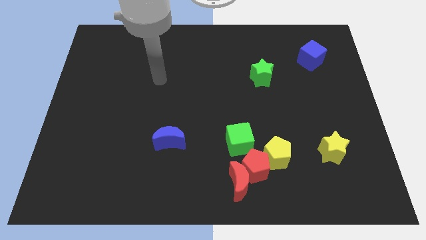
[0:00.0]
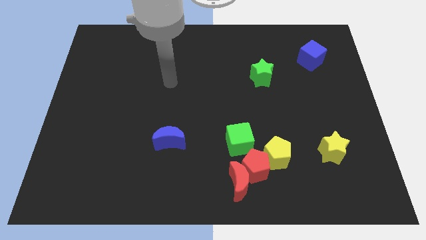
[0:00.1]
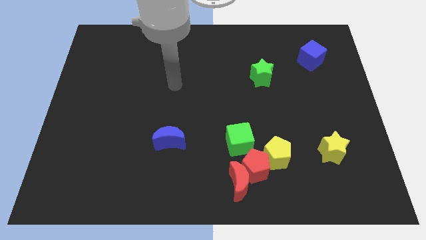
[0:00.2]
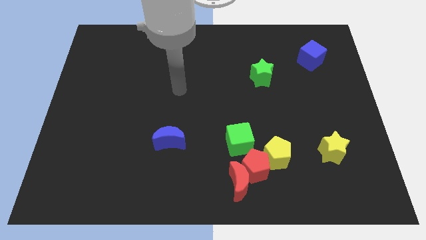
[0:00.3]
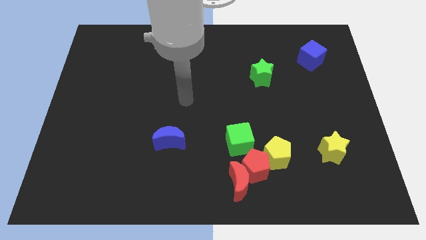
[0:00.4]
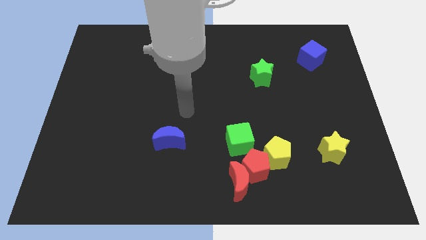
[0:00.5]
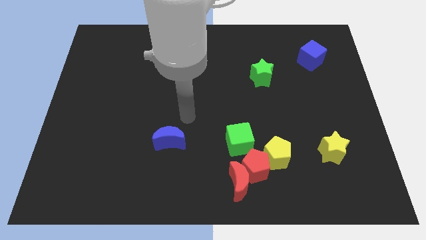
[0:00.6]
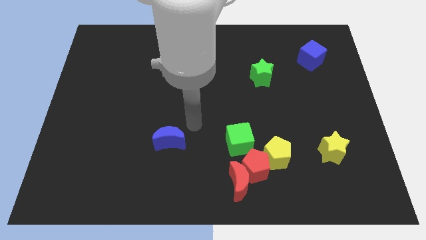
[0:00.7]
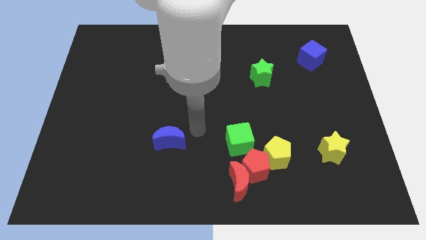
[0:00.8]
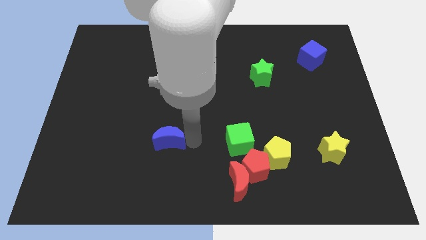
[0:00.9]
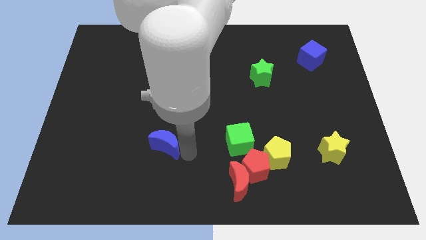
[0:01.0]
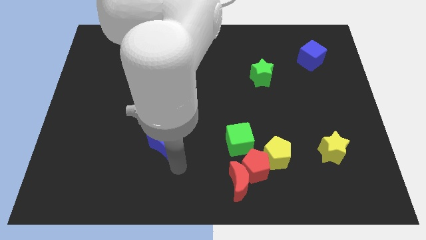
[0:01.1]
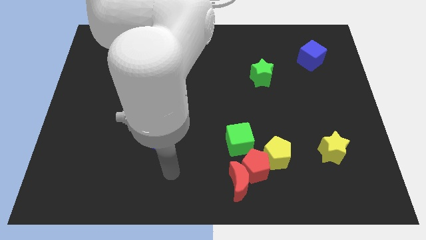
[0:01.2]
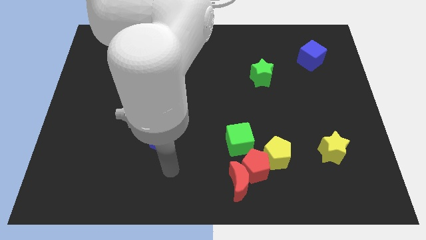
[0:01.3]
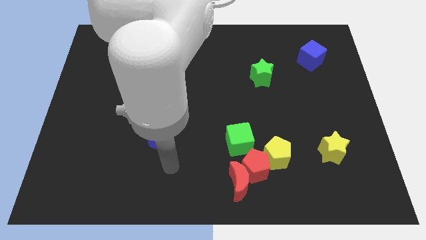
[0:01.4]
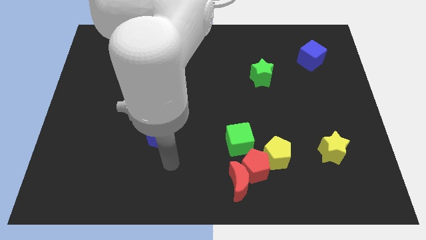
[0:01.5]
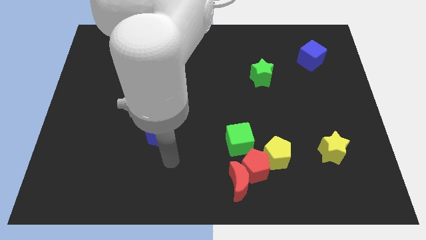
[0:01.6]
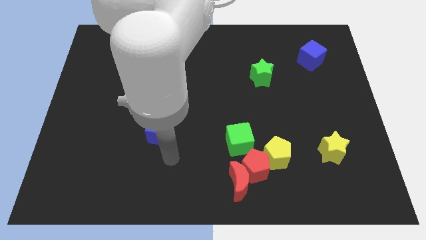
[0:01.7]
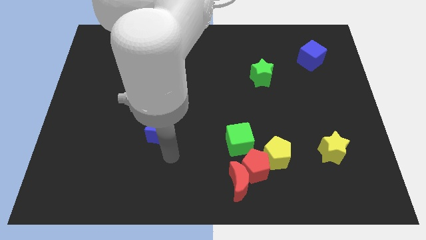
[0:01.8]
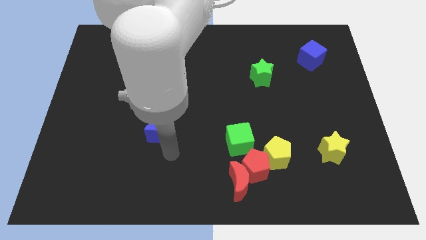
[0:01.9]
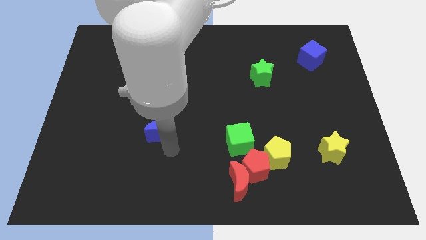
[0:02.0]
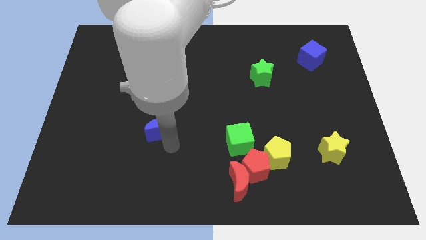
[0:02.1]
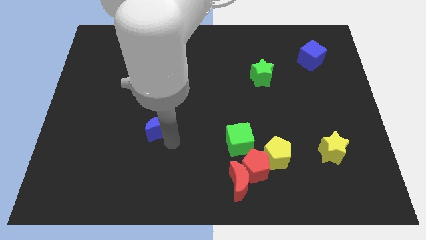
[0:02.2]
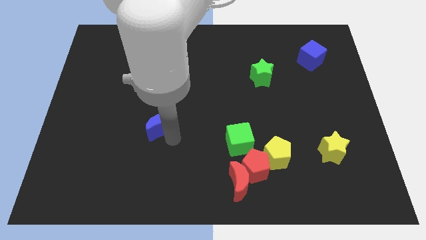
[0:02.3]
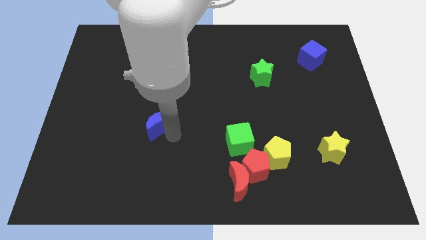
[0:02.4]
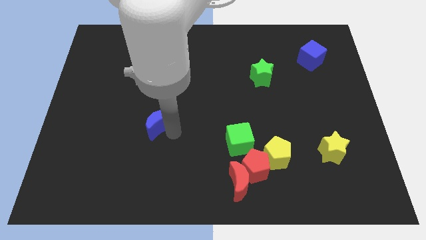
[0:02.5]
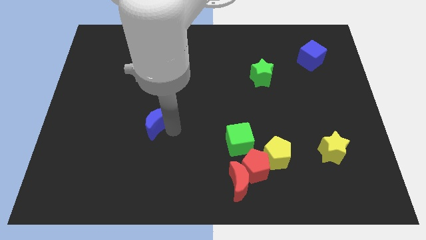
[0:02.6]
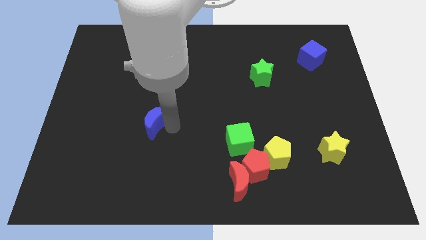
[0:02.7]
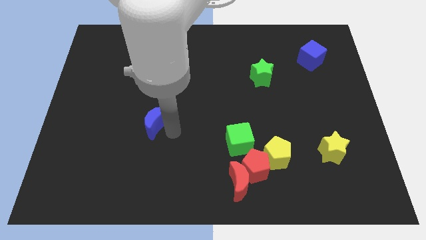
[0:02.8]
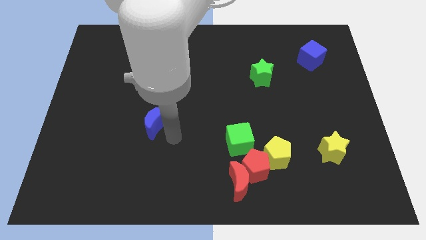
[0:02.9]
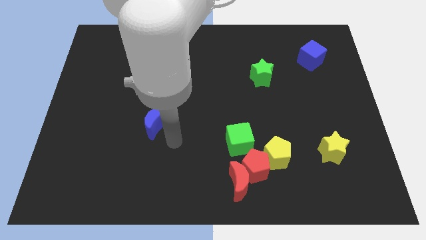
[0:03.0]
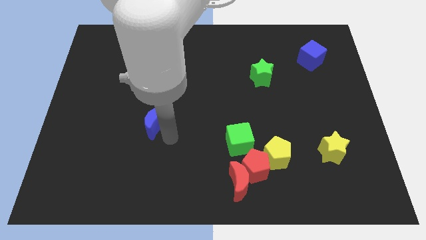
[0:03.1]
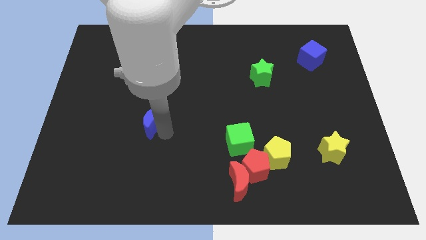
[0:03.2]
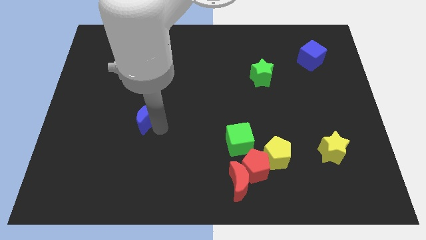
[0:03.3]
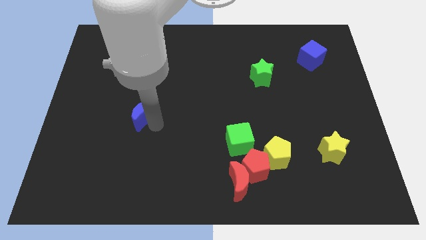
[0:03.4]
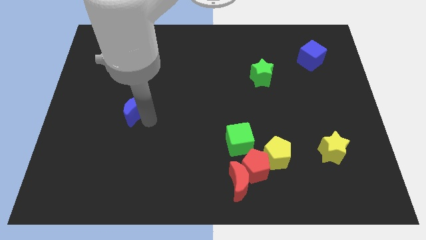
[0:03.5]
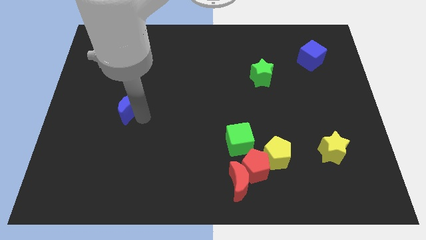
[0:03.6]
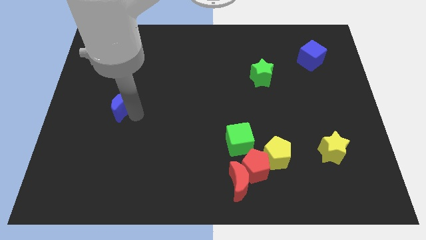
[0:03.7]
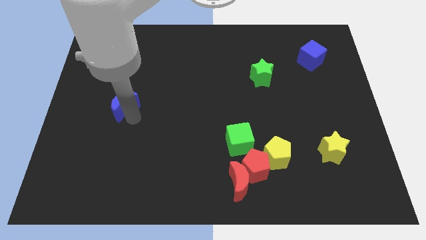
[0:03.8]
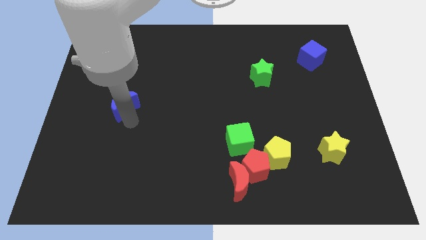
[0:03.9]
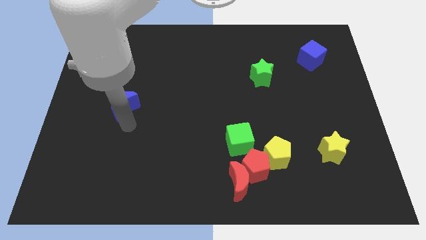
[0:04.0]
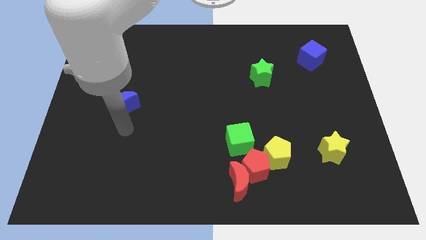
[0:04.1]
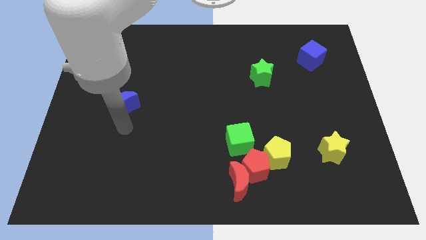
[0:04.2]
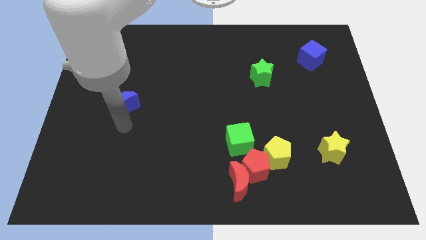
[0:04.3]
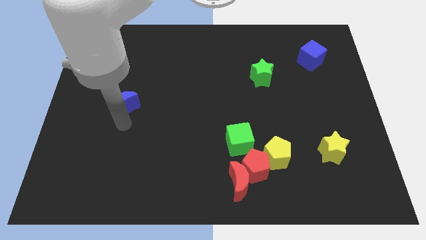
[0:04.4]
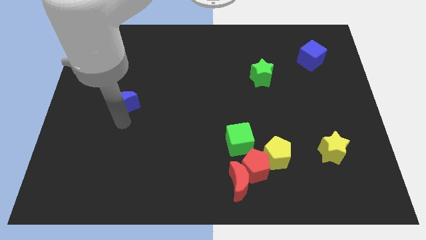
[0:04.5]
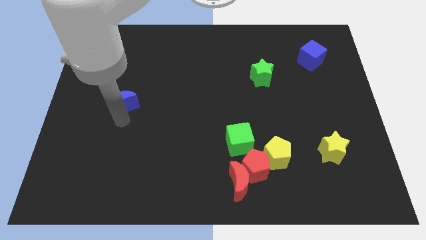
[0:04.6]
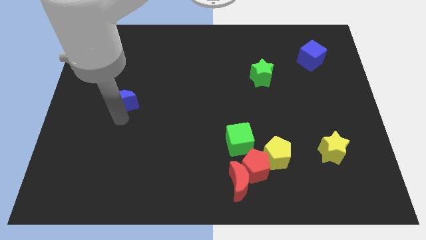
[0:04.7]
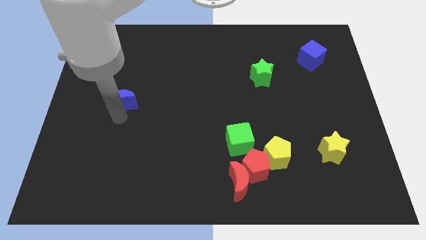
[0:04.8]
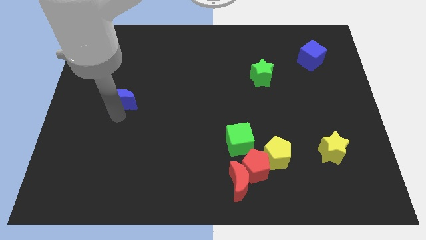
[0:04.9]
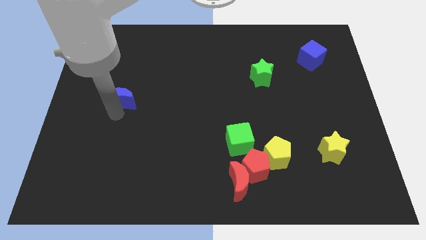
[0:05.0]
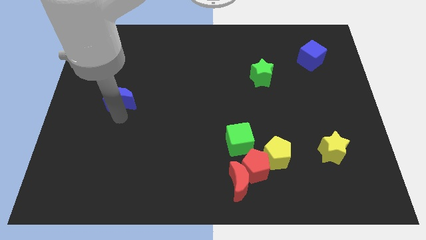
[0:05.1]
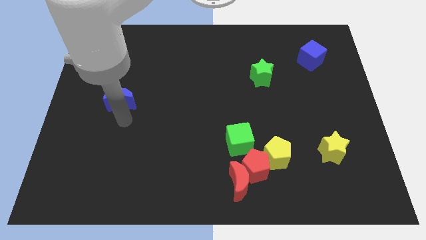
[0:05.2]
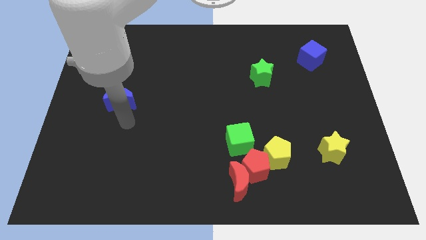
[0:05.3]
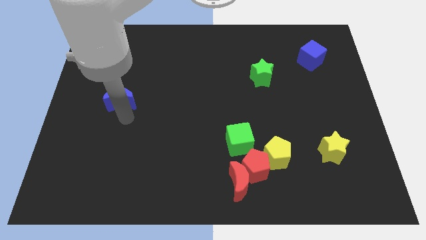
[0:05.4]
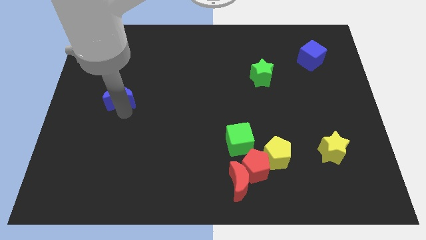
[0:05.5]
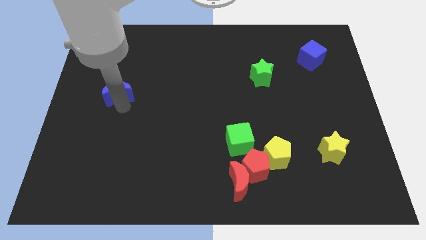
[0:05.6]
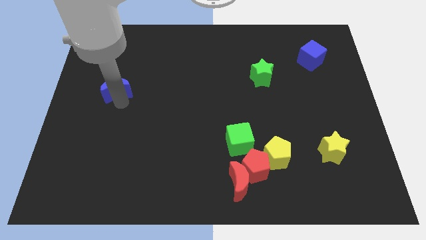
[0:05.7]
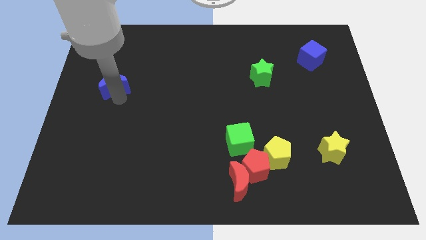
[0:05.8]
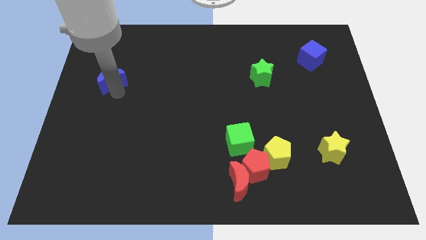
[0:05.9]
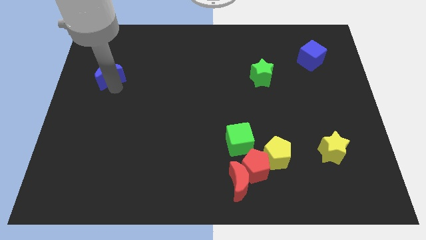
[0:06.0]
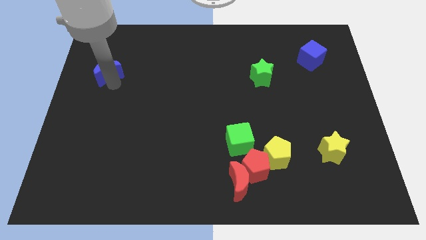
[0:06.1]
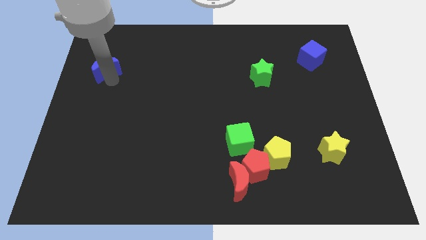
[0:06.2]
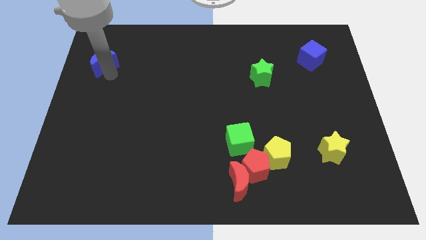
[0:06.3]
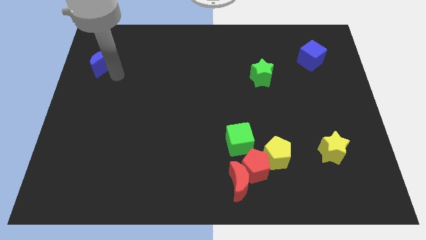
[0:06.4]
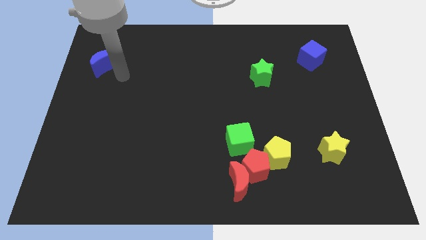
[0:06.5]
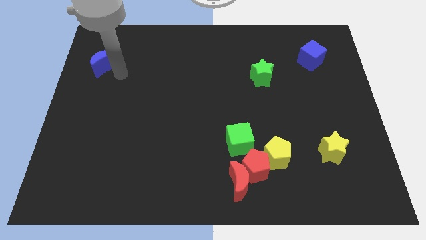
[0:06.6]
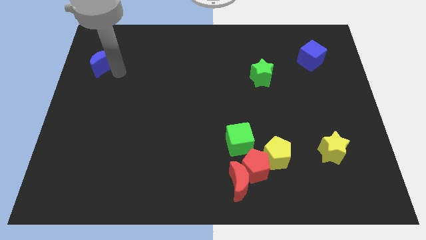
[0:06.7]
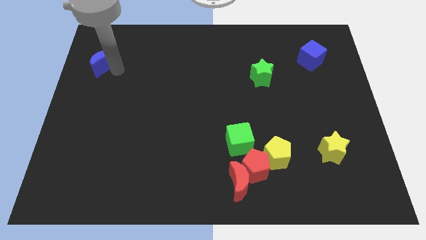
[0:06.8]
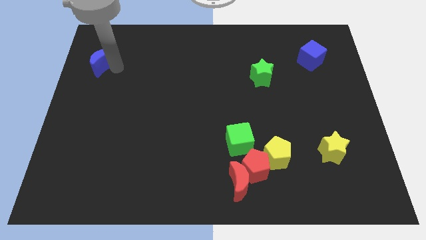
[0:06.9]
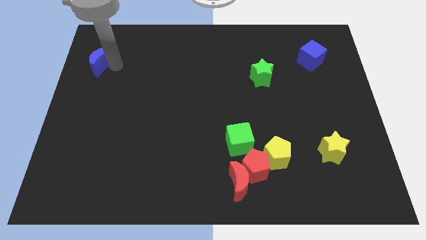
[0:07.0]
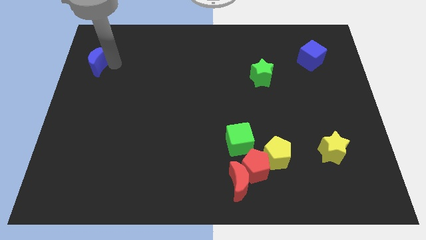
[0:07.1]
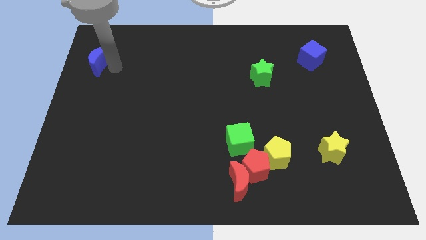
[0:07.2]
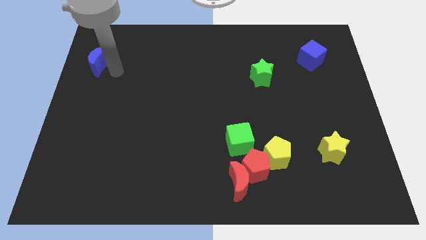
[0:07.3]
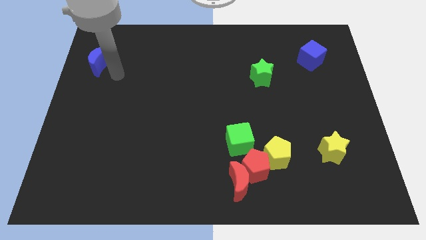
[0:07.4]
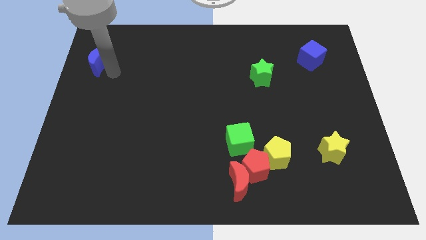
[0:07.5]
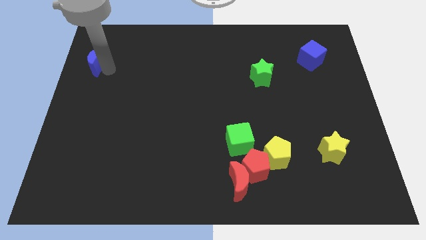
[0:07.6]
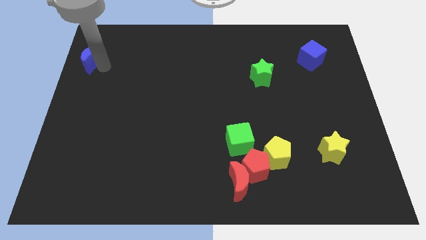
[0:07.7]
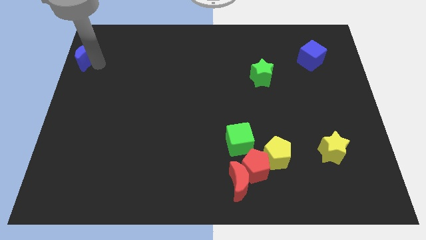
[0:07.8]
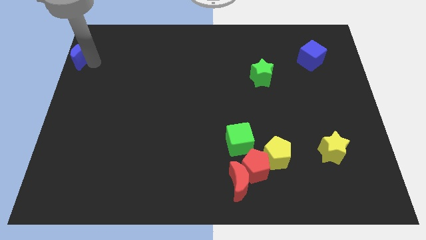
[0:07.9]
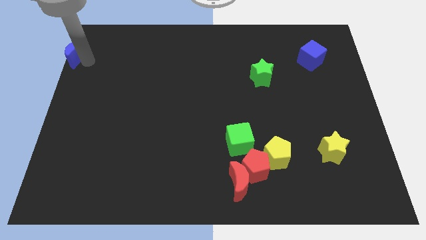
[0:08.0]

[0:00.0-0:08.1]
slide the blue moon to the top left
